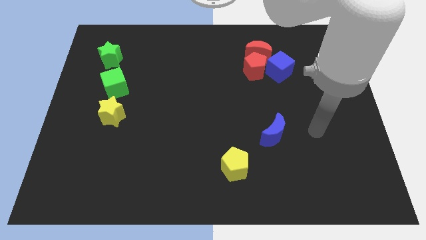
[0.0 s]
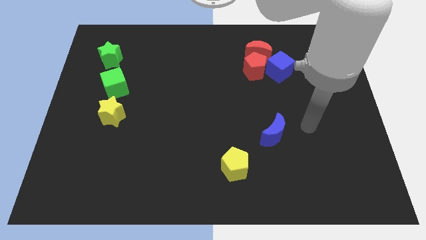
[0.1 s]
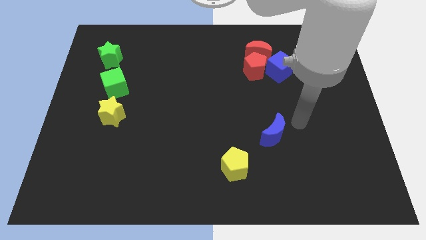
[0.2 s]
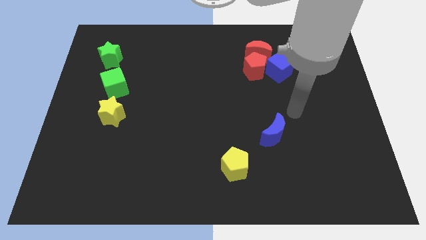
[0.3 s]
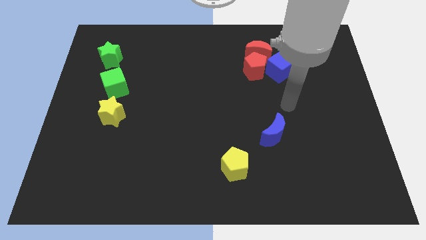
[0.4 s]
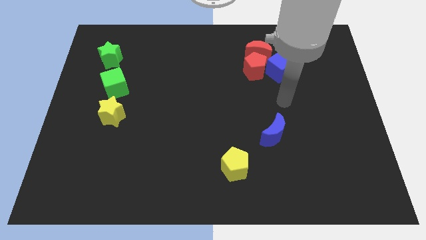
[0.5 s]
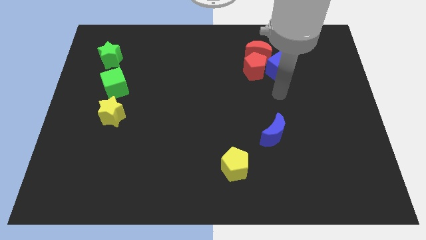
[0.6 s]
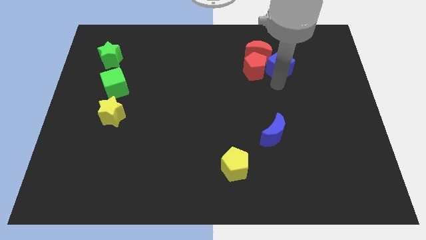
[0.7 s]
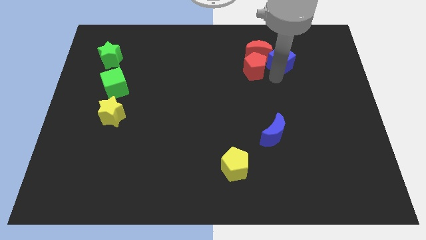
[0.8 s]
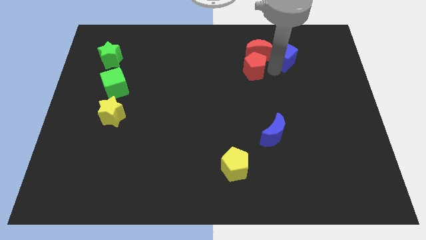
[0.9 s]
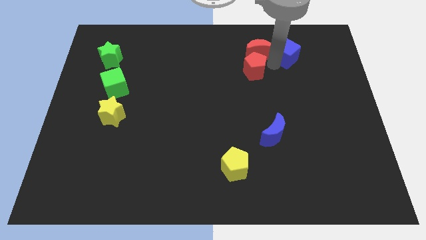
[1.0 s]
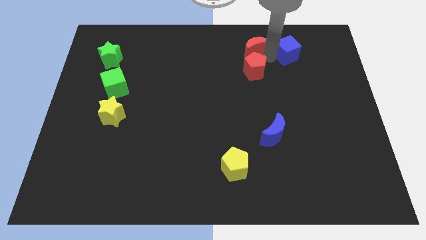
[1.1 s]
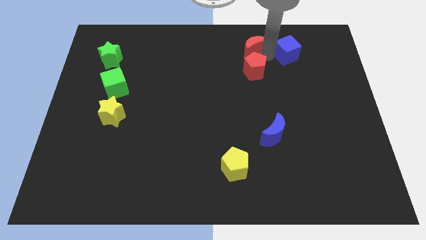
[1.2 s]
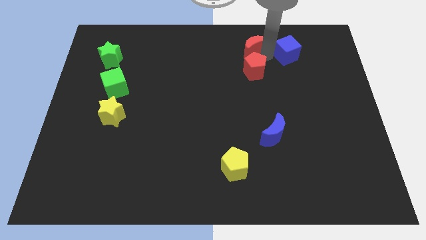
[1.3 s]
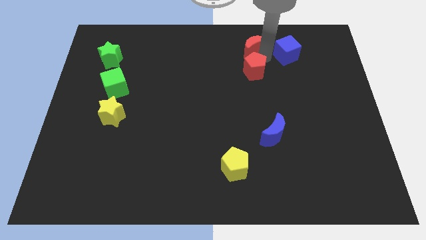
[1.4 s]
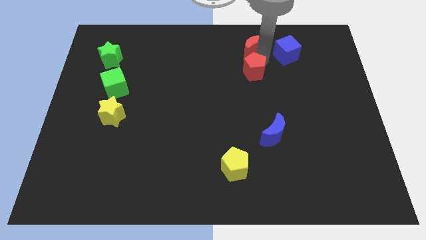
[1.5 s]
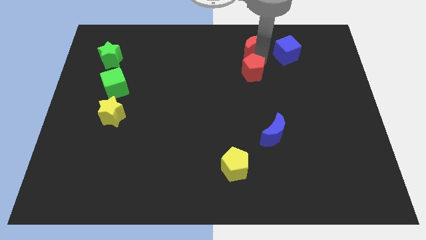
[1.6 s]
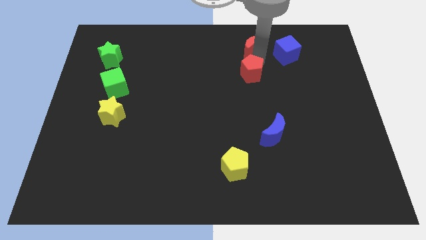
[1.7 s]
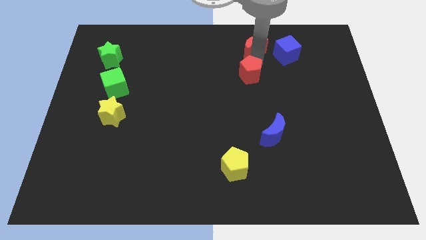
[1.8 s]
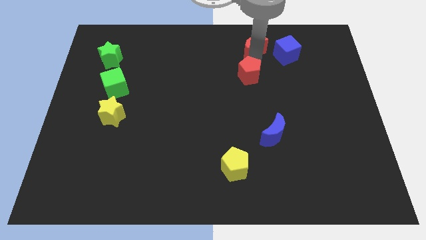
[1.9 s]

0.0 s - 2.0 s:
separate the red pentagon from the red moon and blue cube

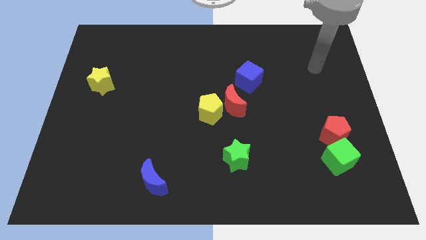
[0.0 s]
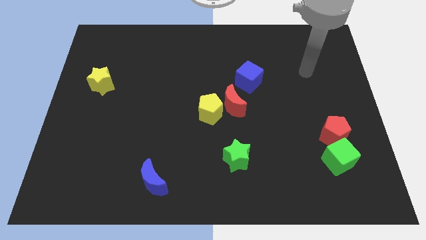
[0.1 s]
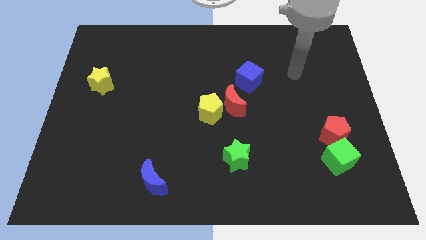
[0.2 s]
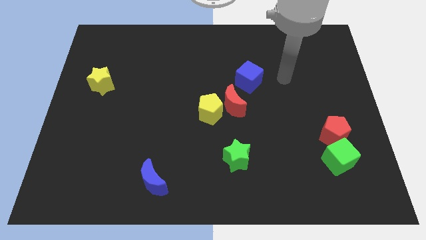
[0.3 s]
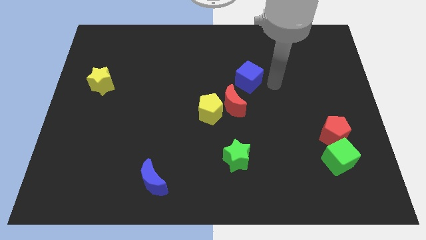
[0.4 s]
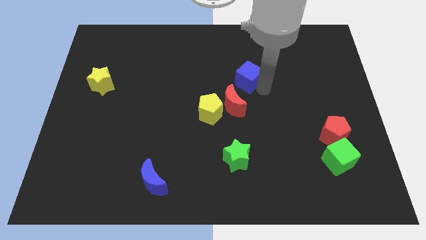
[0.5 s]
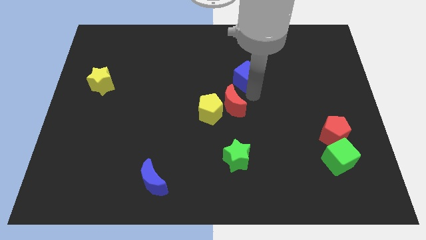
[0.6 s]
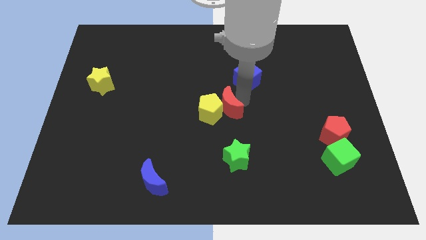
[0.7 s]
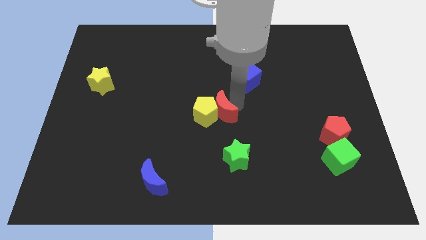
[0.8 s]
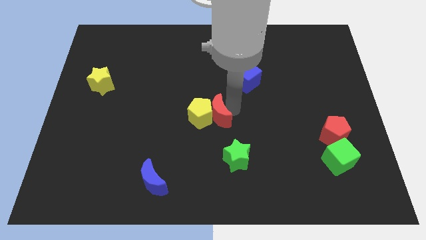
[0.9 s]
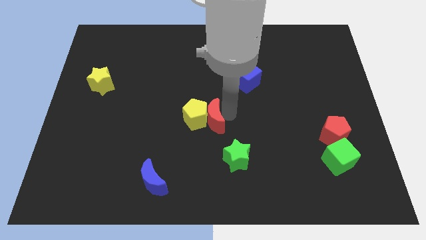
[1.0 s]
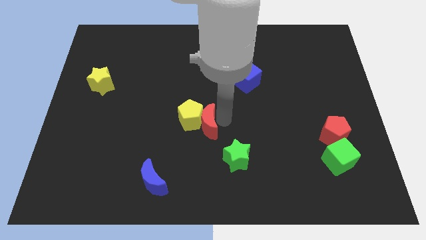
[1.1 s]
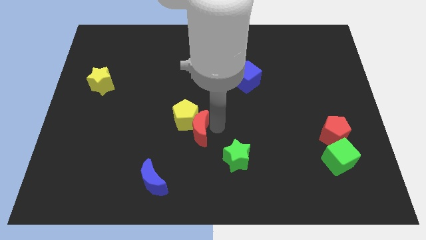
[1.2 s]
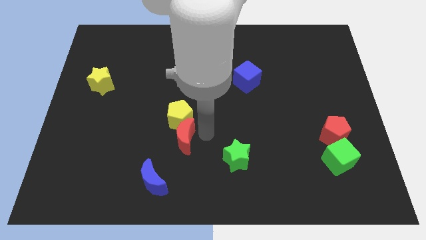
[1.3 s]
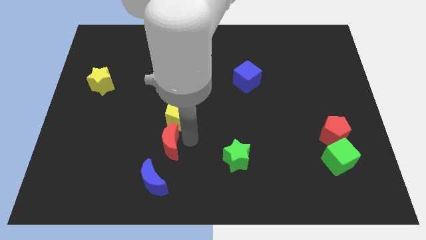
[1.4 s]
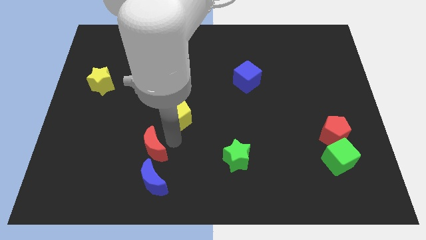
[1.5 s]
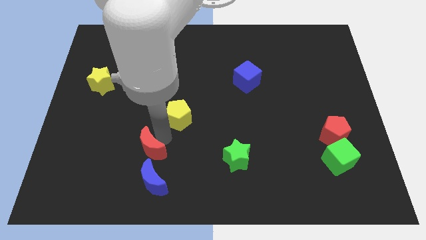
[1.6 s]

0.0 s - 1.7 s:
move the yellow pentagon away from the red moon

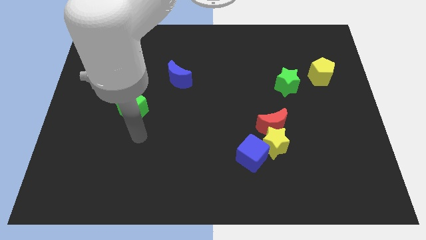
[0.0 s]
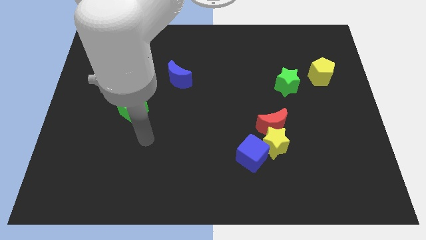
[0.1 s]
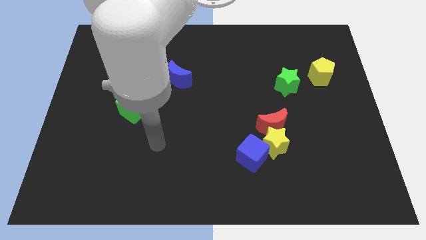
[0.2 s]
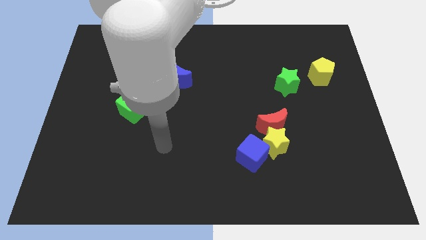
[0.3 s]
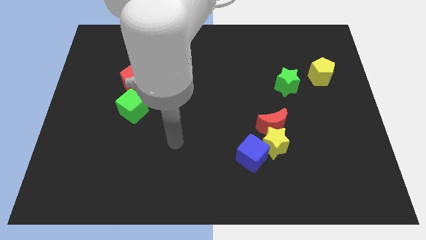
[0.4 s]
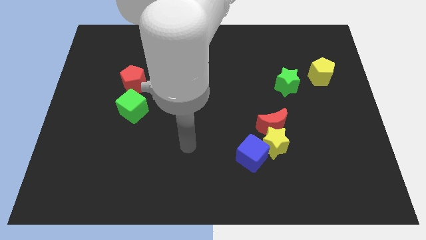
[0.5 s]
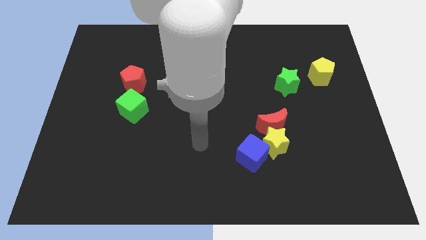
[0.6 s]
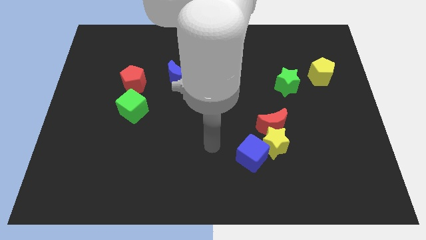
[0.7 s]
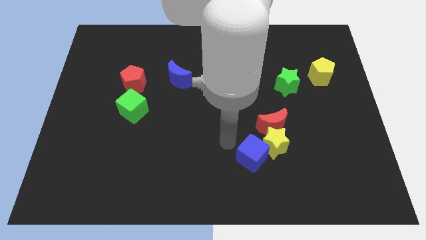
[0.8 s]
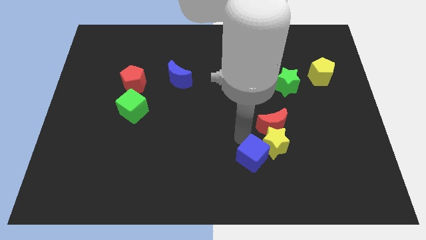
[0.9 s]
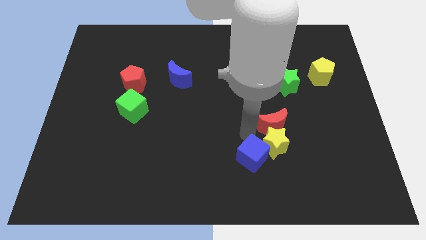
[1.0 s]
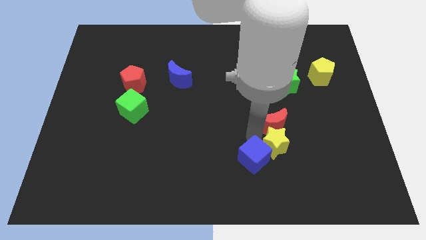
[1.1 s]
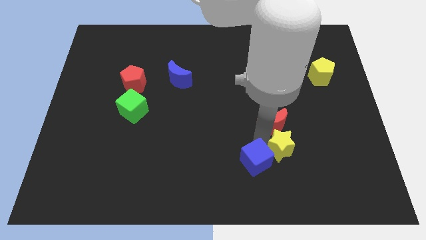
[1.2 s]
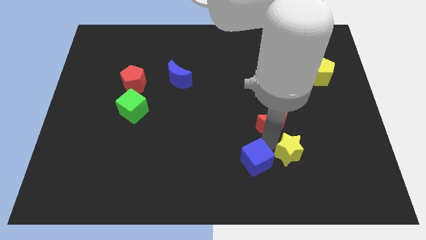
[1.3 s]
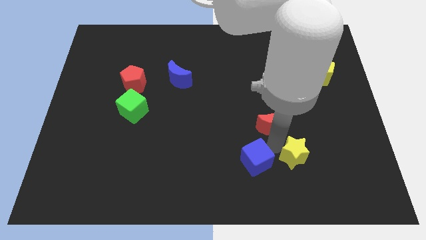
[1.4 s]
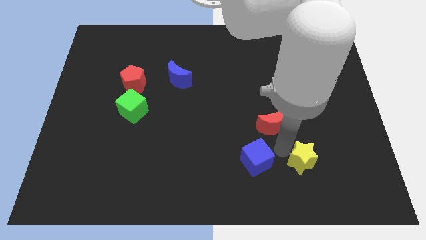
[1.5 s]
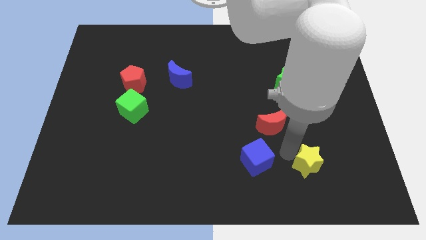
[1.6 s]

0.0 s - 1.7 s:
separate the yellow star from the red moon and blue cube

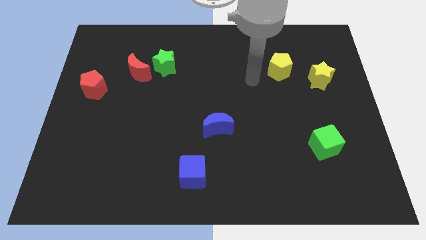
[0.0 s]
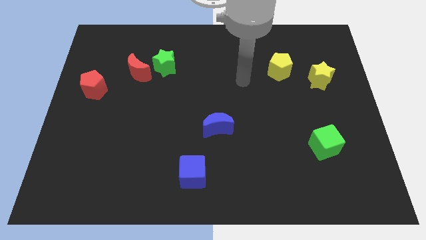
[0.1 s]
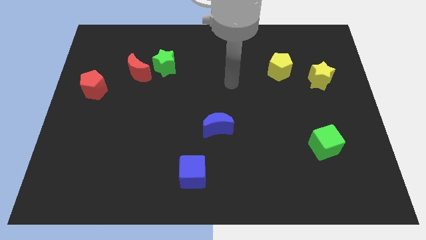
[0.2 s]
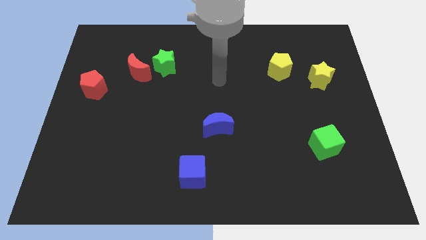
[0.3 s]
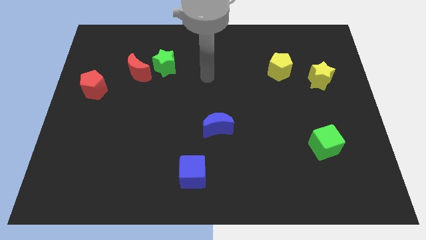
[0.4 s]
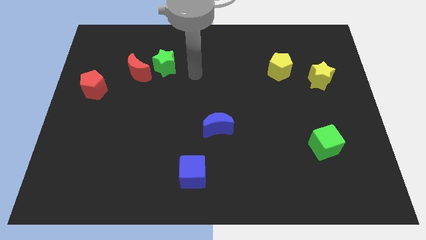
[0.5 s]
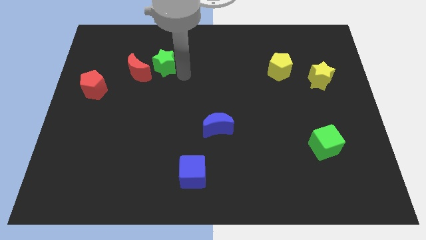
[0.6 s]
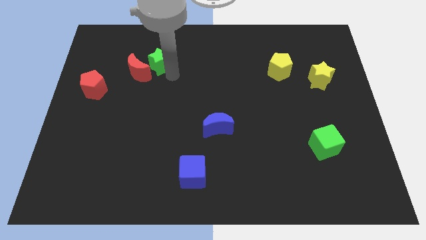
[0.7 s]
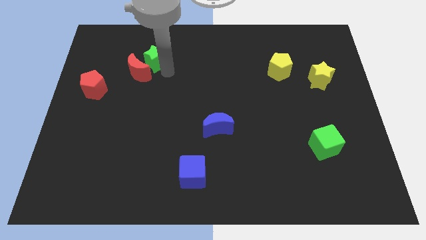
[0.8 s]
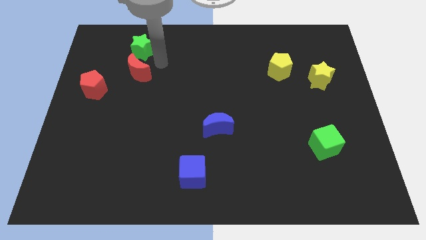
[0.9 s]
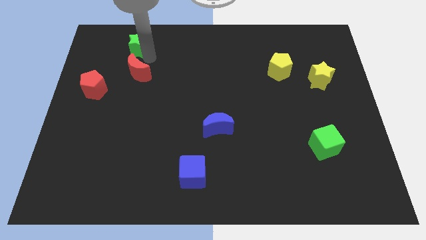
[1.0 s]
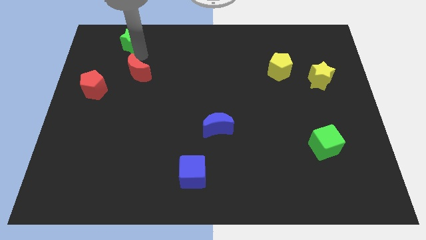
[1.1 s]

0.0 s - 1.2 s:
move the red moon away from the green star

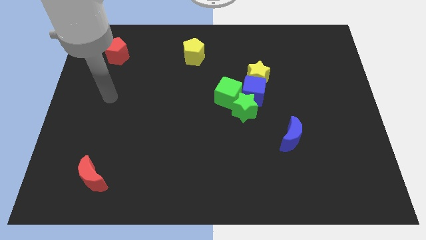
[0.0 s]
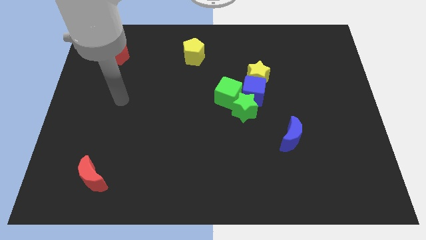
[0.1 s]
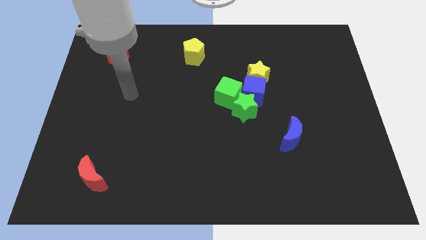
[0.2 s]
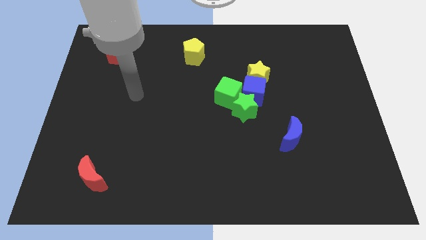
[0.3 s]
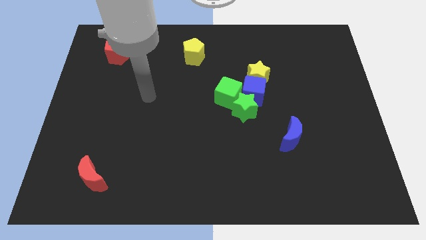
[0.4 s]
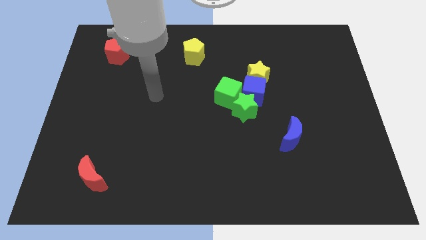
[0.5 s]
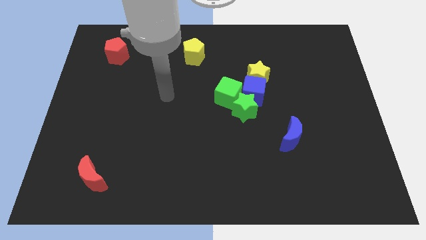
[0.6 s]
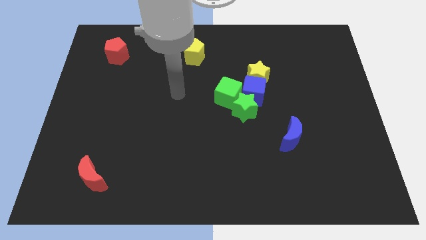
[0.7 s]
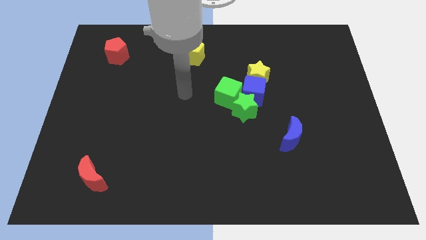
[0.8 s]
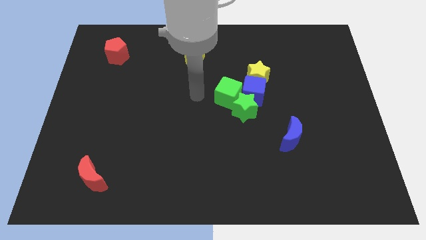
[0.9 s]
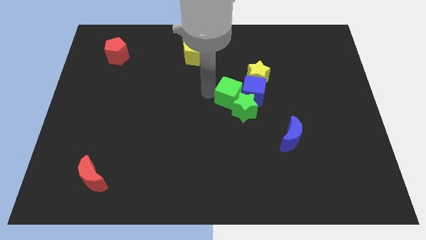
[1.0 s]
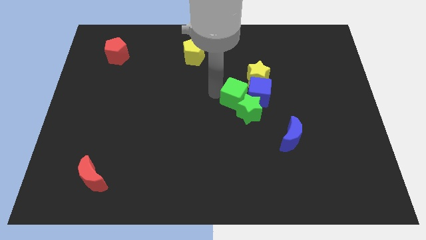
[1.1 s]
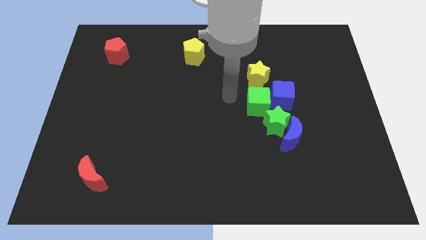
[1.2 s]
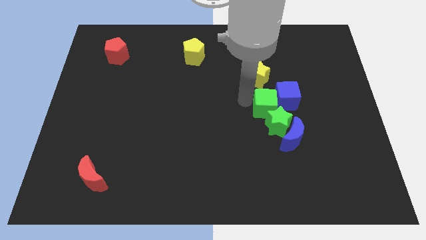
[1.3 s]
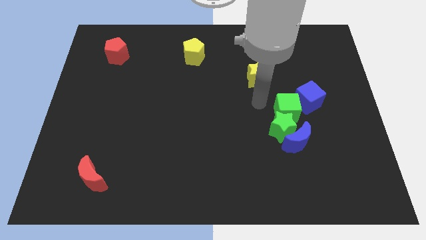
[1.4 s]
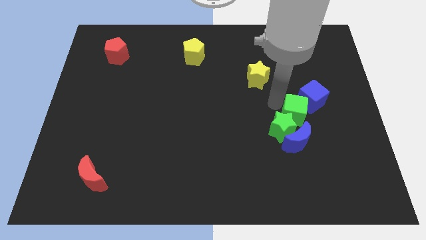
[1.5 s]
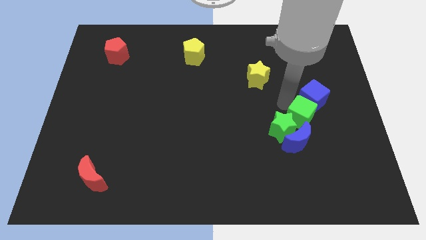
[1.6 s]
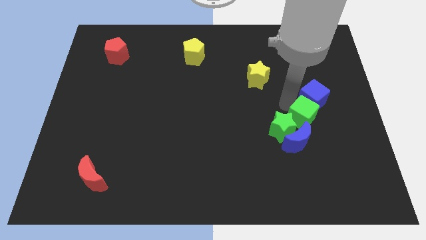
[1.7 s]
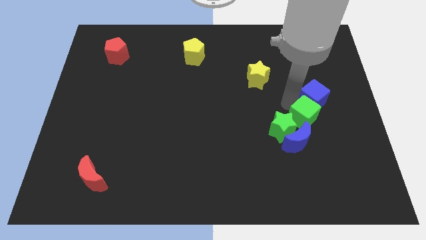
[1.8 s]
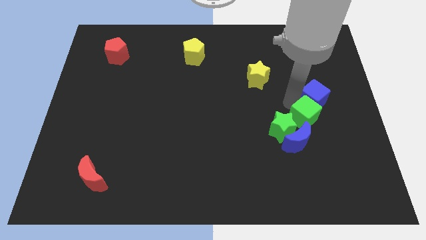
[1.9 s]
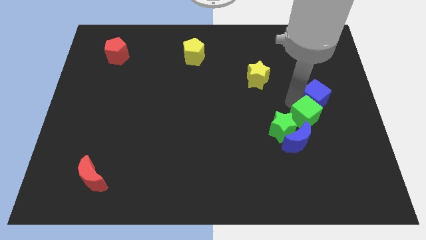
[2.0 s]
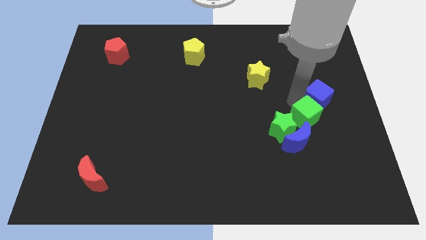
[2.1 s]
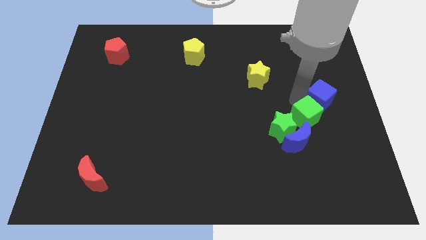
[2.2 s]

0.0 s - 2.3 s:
separate the blue cube from the clump

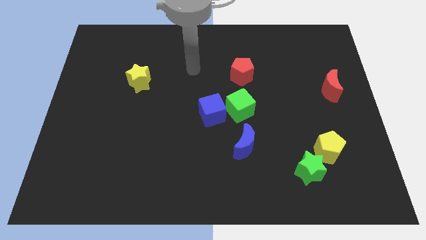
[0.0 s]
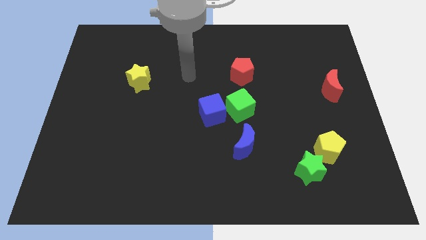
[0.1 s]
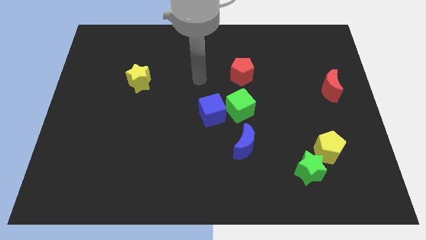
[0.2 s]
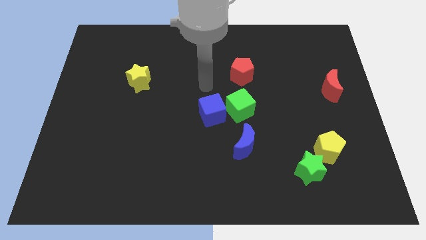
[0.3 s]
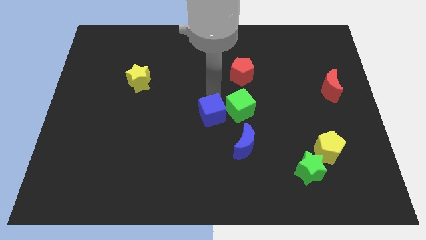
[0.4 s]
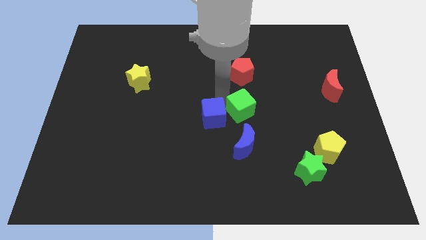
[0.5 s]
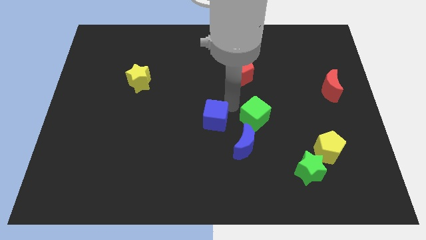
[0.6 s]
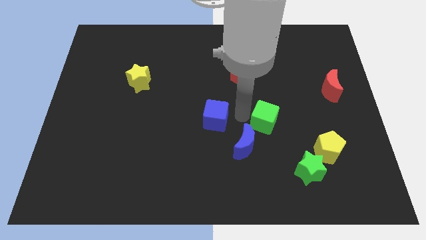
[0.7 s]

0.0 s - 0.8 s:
separate the blue cube from the green cube
